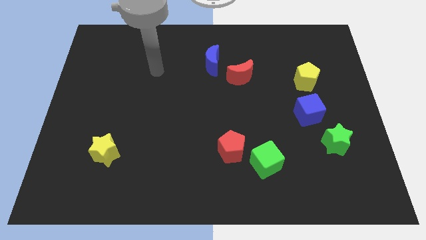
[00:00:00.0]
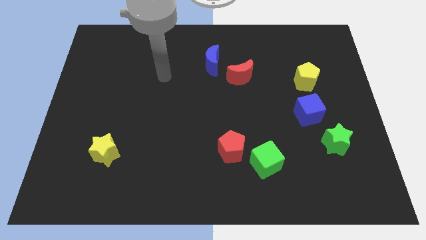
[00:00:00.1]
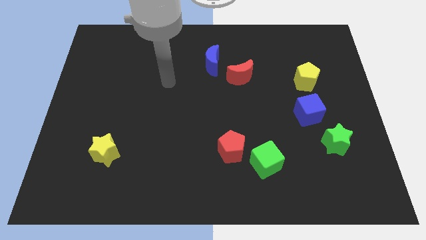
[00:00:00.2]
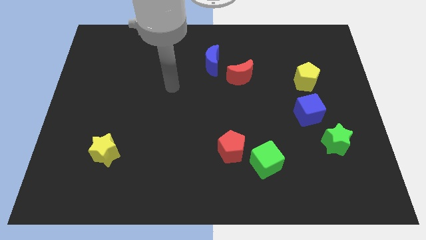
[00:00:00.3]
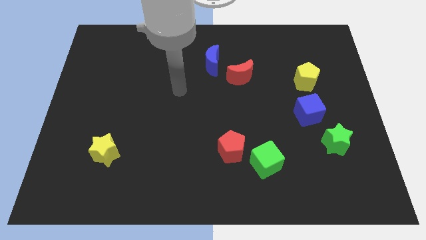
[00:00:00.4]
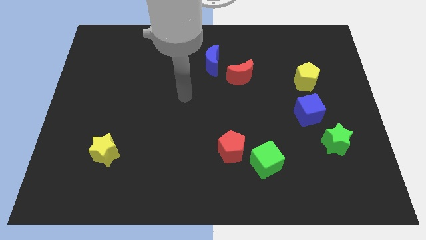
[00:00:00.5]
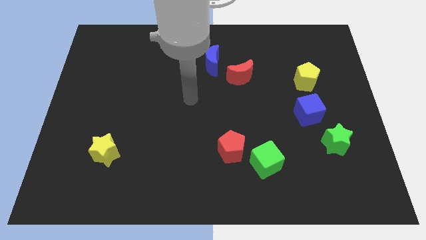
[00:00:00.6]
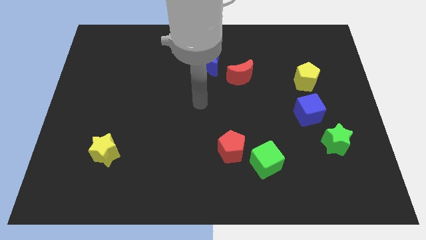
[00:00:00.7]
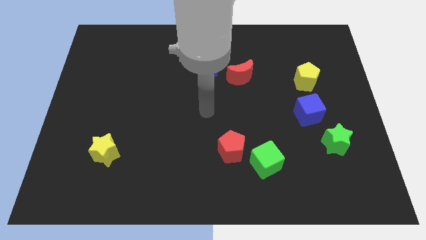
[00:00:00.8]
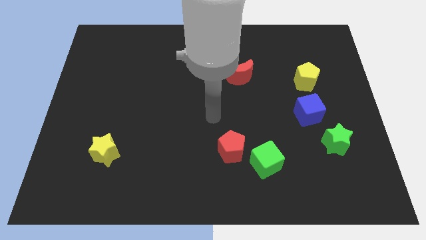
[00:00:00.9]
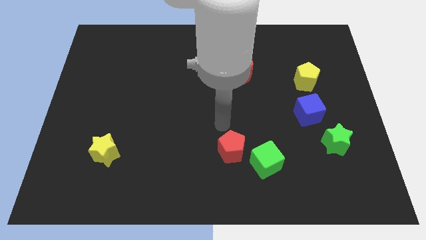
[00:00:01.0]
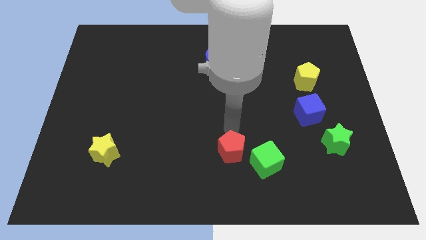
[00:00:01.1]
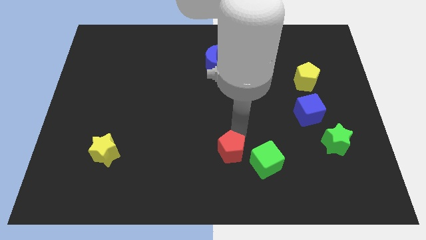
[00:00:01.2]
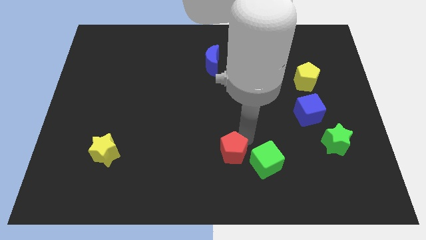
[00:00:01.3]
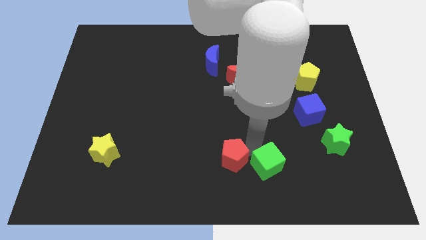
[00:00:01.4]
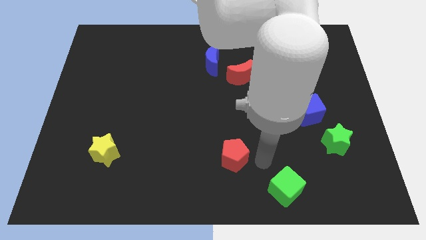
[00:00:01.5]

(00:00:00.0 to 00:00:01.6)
pull the red pentagon apart from the green cube

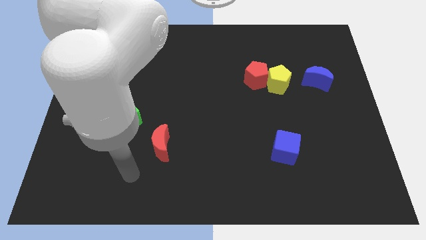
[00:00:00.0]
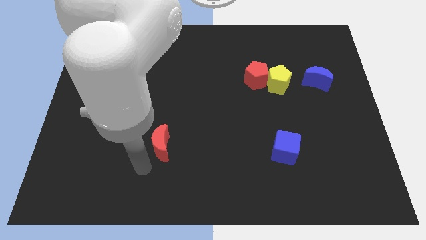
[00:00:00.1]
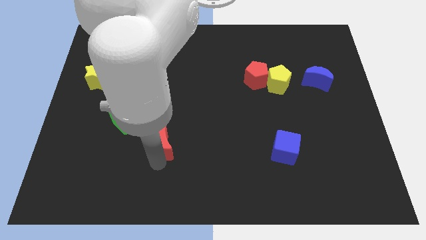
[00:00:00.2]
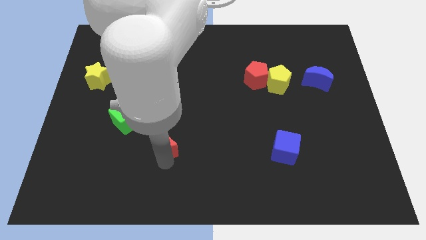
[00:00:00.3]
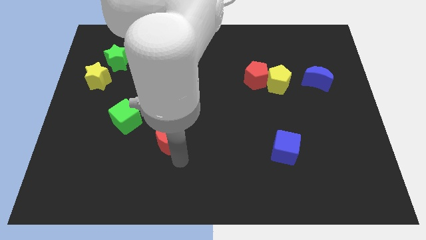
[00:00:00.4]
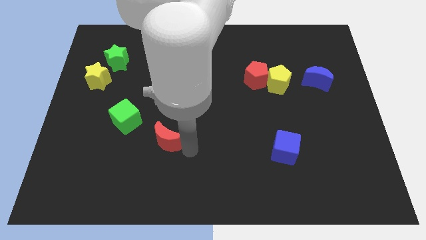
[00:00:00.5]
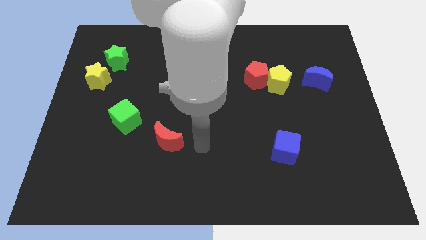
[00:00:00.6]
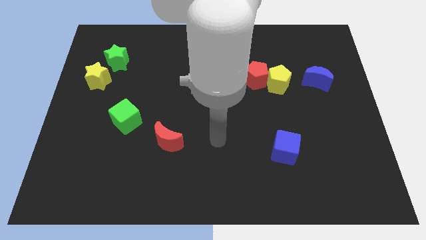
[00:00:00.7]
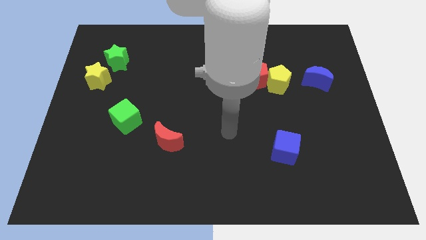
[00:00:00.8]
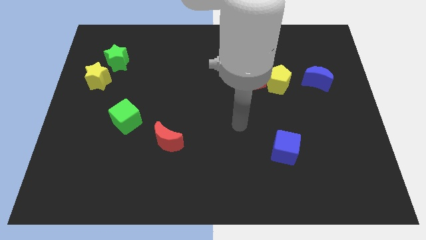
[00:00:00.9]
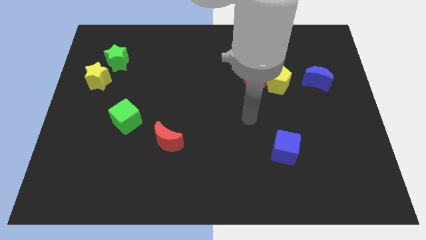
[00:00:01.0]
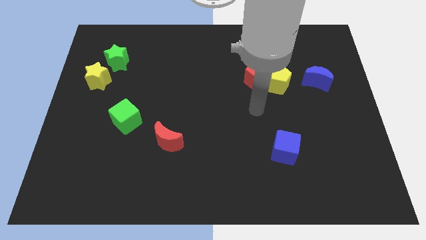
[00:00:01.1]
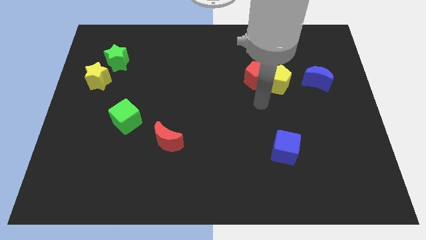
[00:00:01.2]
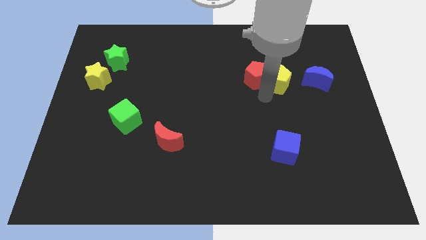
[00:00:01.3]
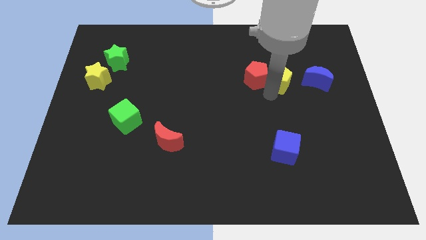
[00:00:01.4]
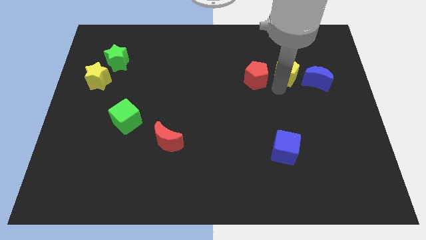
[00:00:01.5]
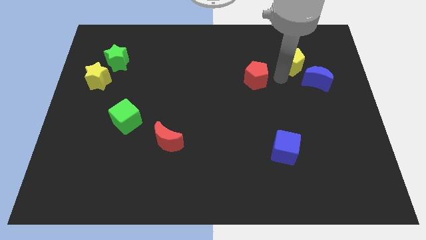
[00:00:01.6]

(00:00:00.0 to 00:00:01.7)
pull the red pentagon apart from the yellow pentagon

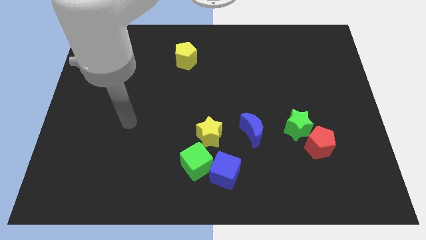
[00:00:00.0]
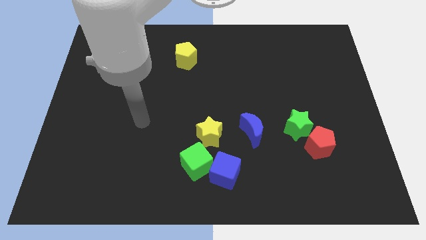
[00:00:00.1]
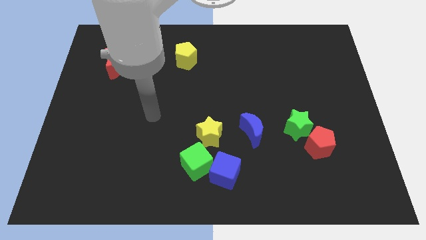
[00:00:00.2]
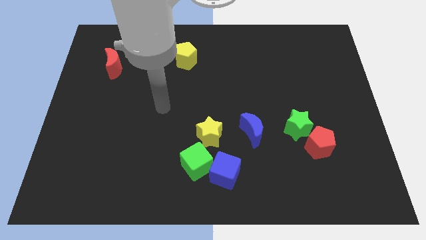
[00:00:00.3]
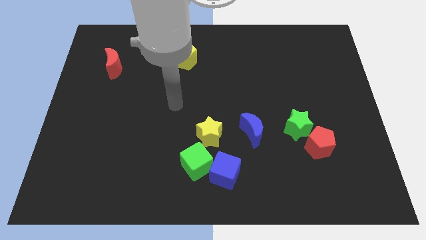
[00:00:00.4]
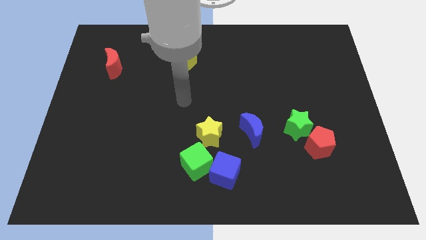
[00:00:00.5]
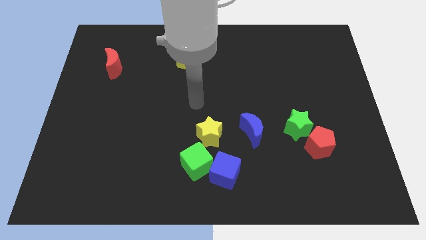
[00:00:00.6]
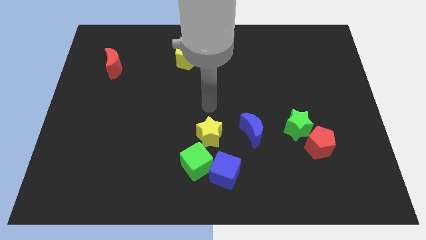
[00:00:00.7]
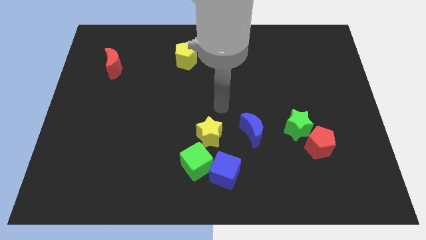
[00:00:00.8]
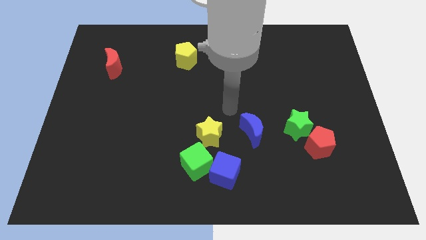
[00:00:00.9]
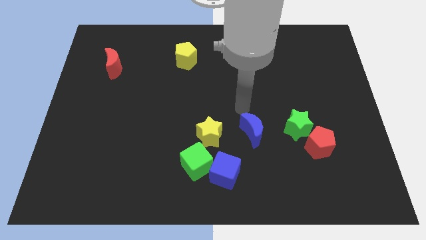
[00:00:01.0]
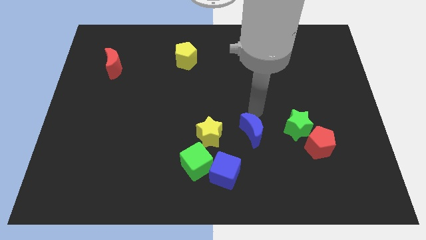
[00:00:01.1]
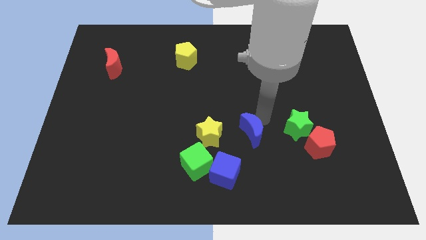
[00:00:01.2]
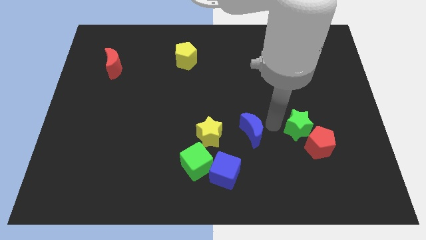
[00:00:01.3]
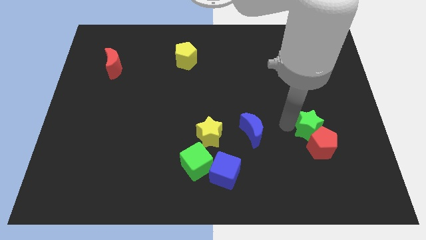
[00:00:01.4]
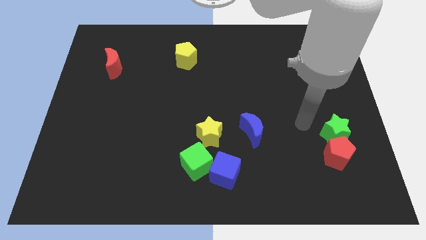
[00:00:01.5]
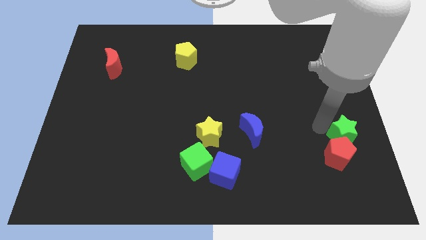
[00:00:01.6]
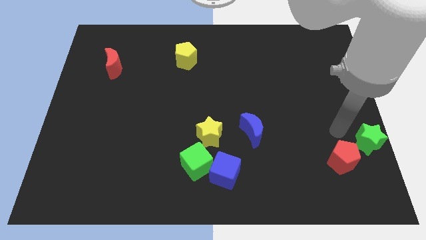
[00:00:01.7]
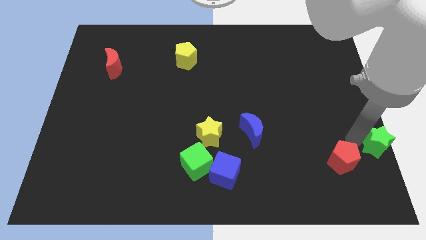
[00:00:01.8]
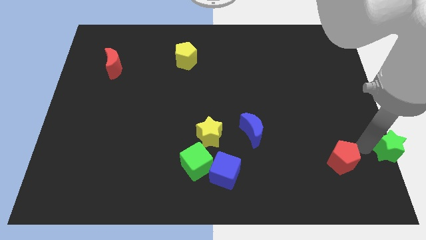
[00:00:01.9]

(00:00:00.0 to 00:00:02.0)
separate the red pentagon from the green star

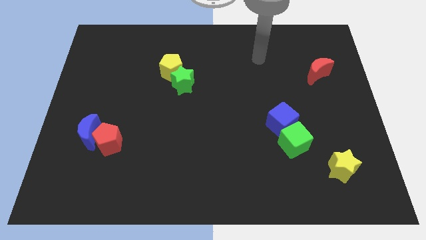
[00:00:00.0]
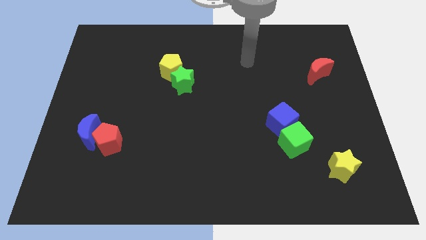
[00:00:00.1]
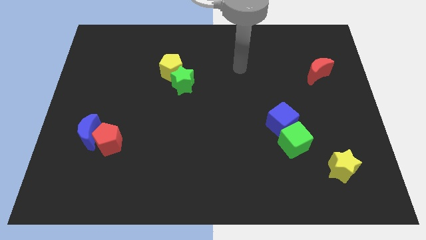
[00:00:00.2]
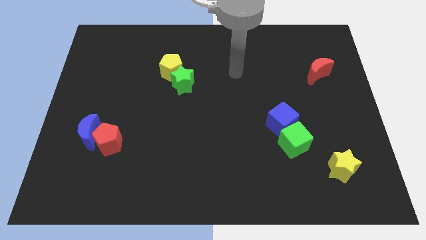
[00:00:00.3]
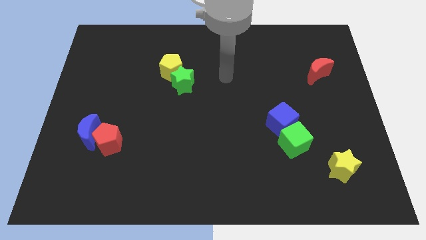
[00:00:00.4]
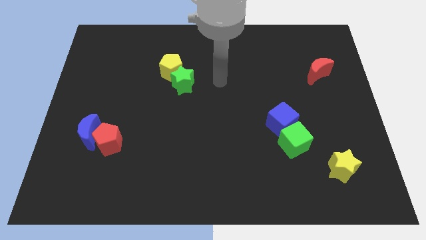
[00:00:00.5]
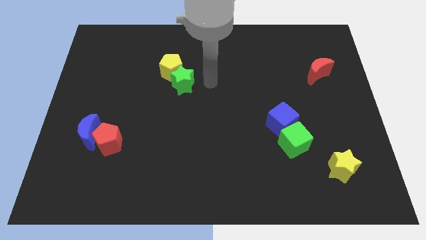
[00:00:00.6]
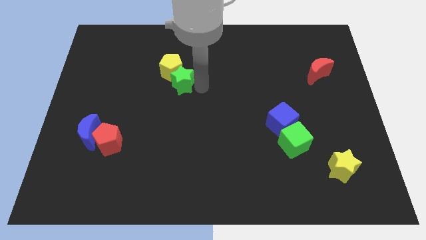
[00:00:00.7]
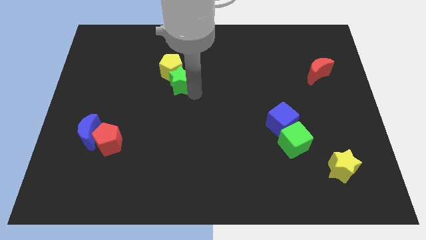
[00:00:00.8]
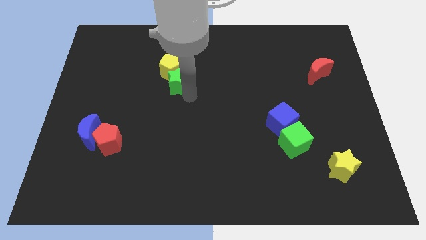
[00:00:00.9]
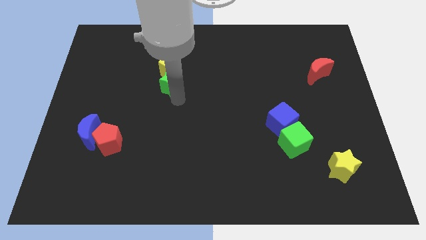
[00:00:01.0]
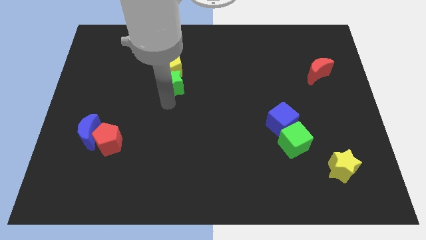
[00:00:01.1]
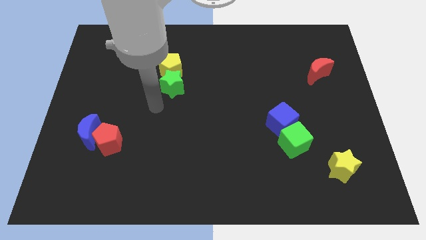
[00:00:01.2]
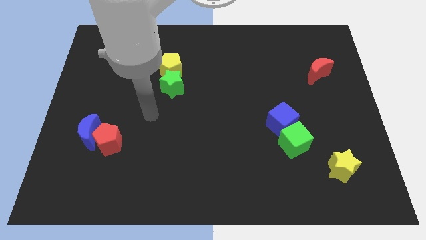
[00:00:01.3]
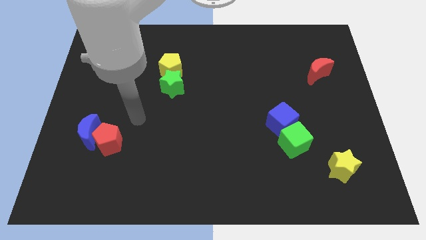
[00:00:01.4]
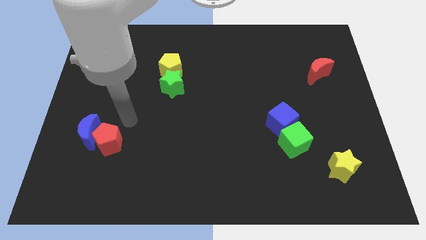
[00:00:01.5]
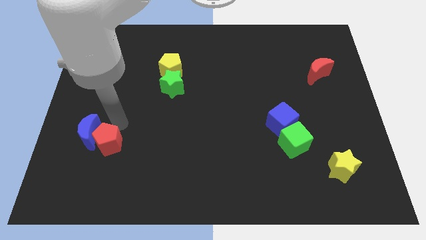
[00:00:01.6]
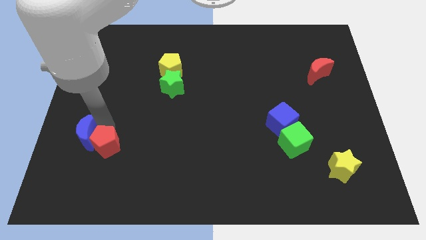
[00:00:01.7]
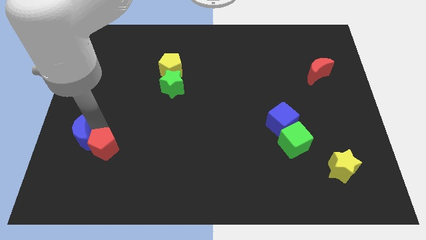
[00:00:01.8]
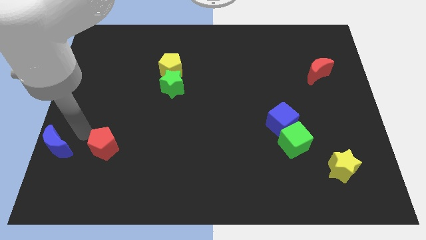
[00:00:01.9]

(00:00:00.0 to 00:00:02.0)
separate the red pentagon from the blue moon

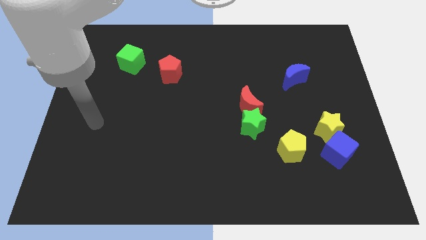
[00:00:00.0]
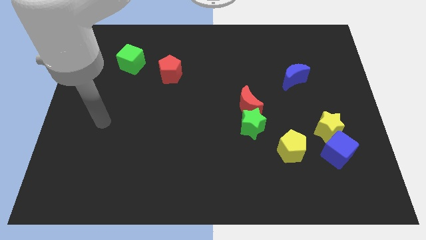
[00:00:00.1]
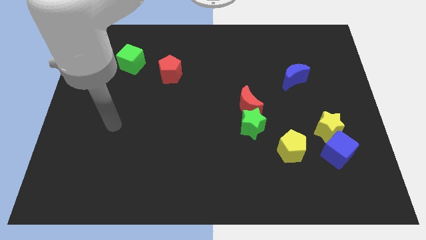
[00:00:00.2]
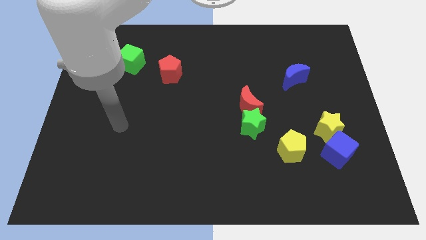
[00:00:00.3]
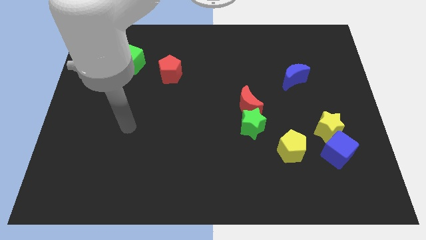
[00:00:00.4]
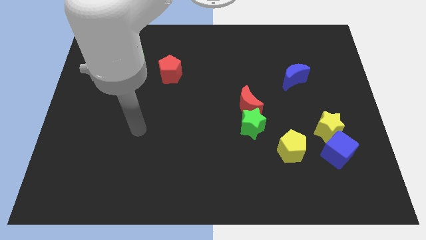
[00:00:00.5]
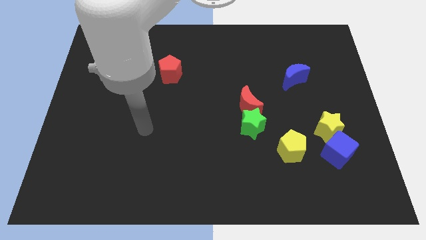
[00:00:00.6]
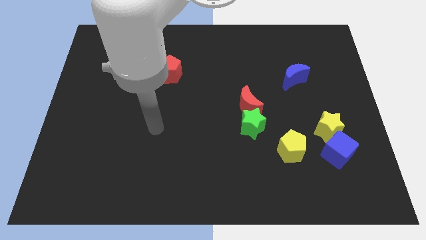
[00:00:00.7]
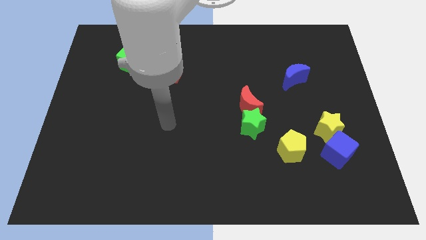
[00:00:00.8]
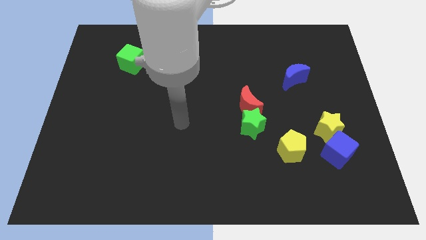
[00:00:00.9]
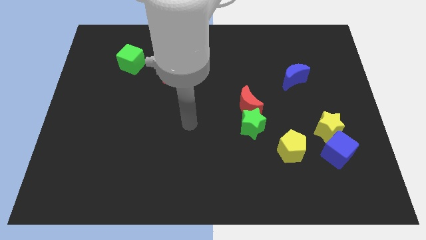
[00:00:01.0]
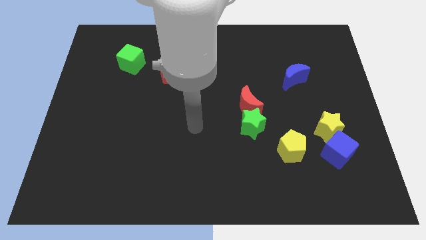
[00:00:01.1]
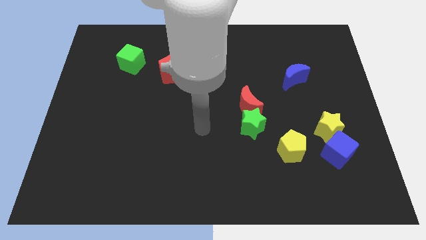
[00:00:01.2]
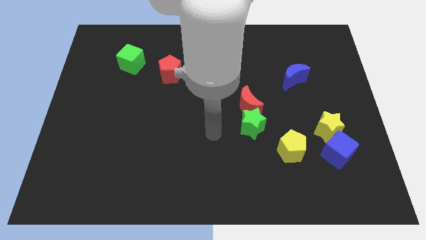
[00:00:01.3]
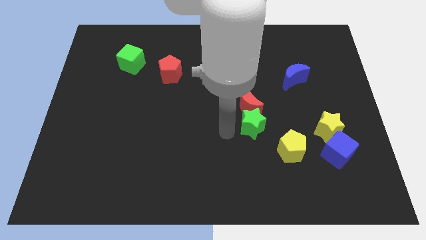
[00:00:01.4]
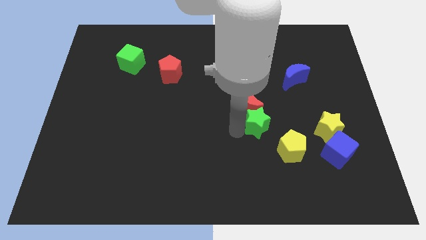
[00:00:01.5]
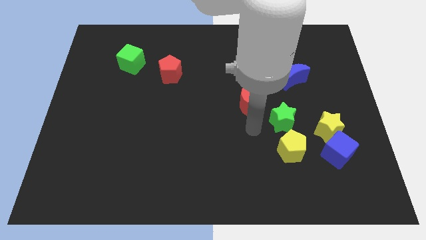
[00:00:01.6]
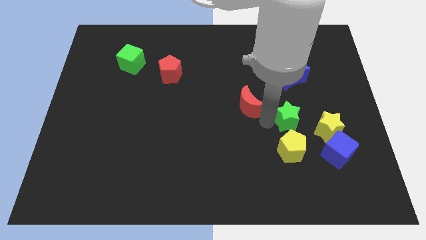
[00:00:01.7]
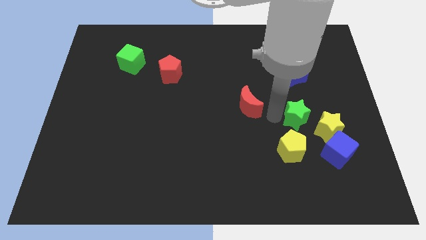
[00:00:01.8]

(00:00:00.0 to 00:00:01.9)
pull the red moon apart from the green star
